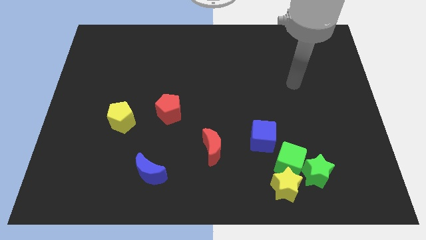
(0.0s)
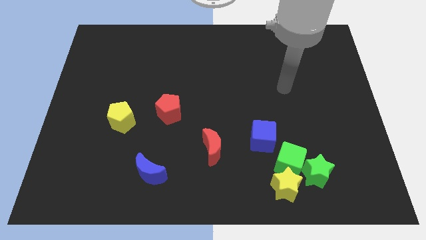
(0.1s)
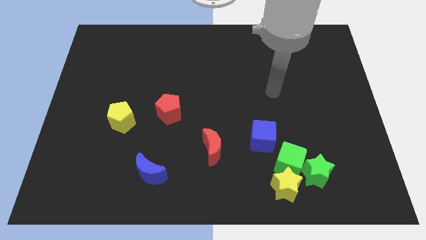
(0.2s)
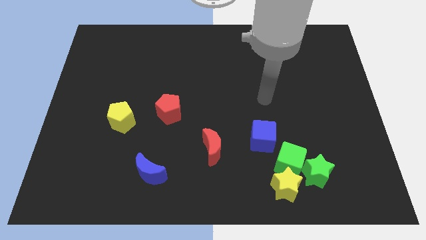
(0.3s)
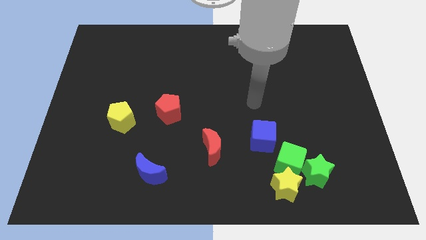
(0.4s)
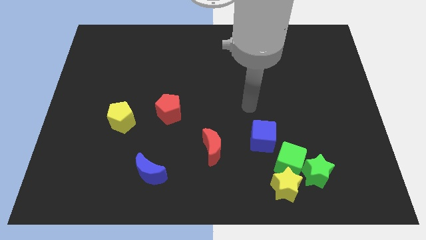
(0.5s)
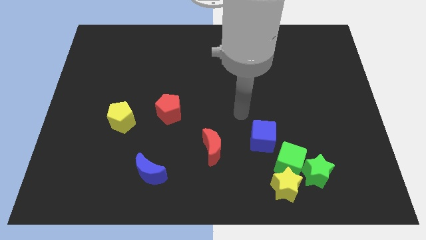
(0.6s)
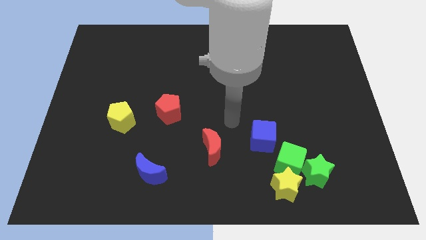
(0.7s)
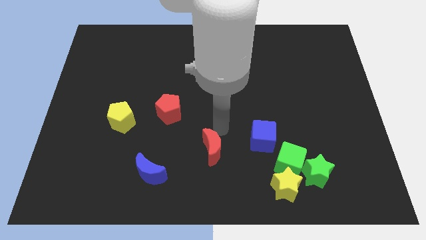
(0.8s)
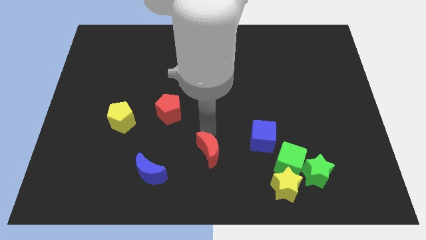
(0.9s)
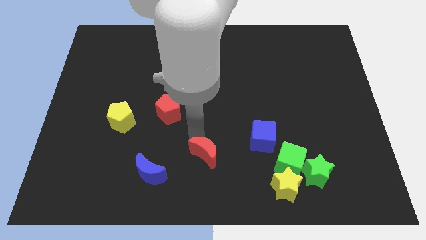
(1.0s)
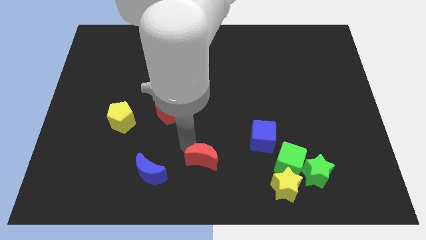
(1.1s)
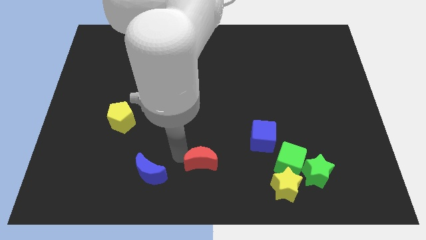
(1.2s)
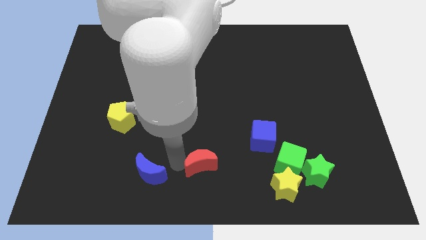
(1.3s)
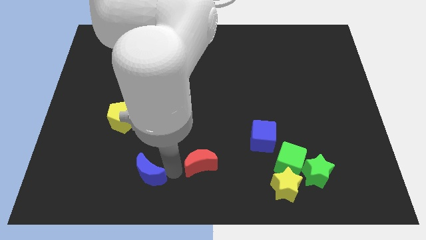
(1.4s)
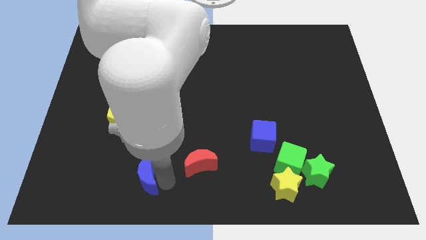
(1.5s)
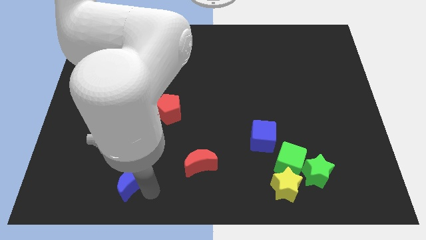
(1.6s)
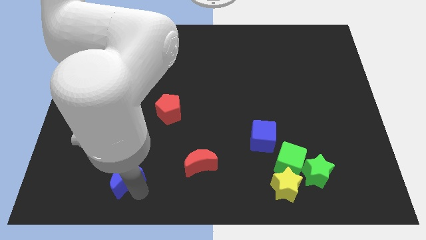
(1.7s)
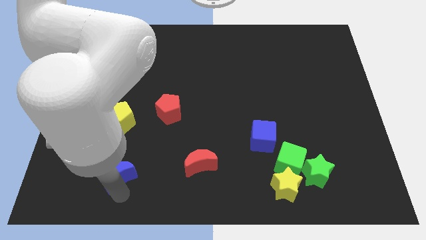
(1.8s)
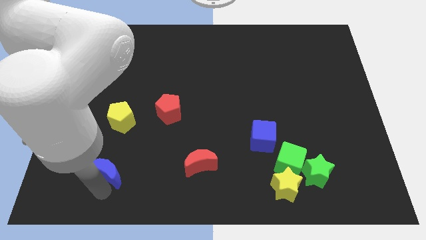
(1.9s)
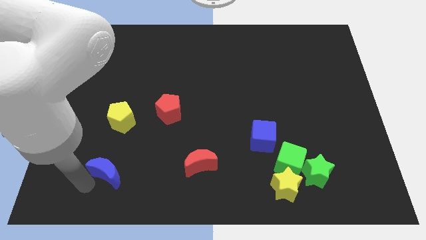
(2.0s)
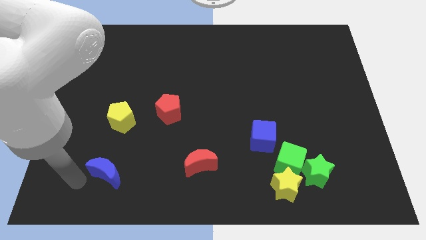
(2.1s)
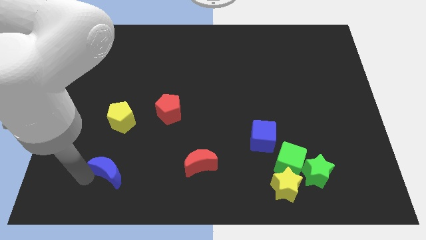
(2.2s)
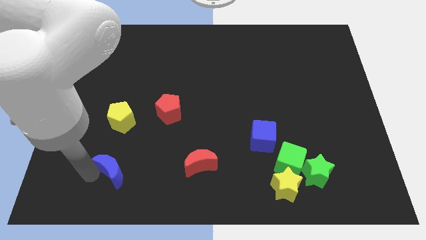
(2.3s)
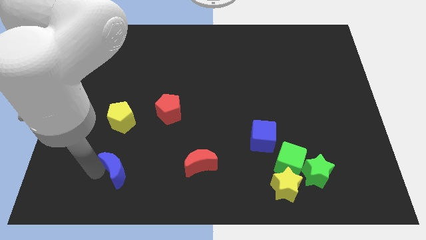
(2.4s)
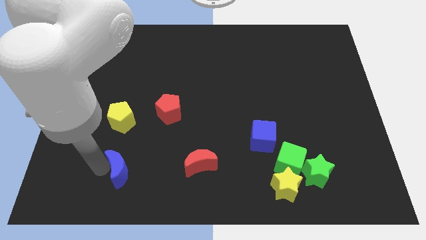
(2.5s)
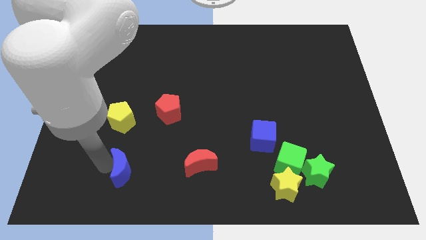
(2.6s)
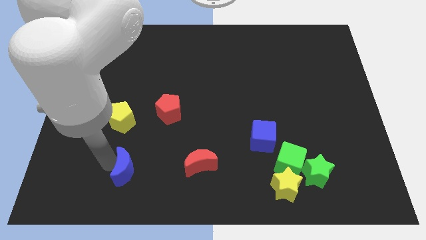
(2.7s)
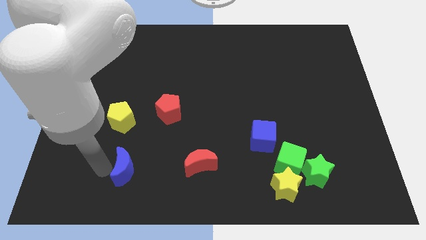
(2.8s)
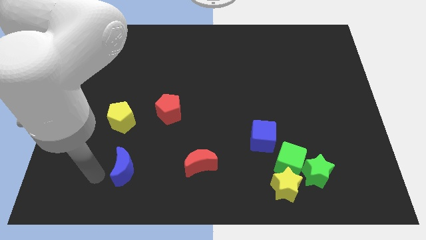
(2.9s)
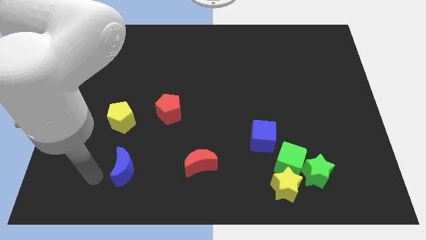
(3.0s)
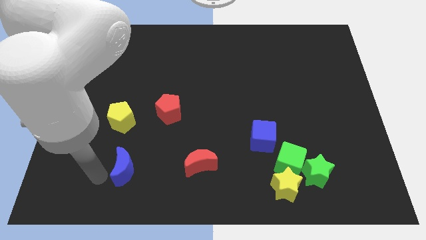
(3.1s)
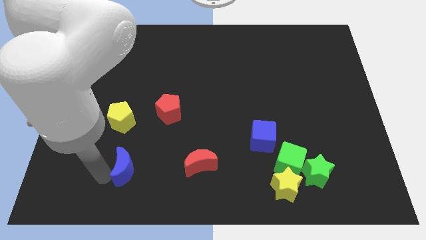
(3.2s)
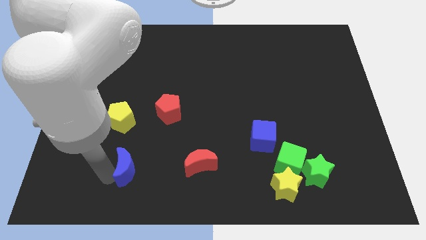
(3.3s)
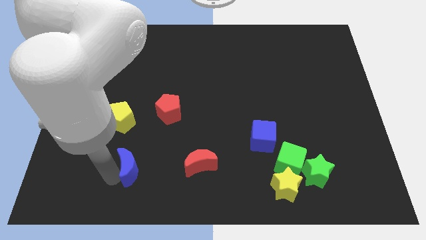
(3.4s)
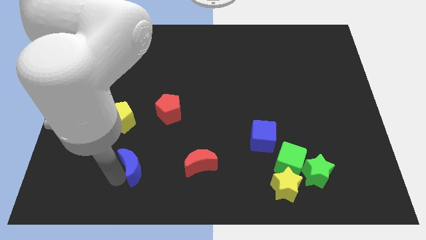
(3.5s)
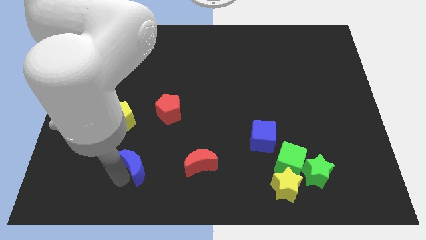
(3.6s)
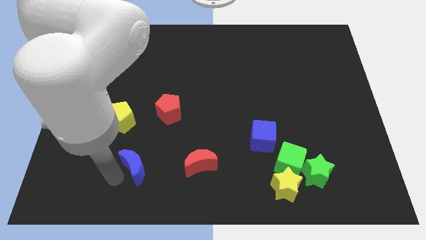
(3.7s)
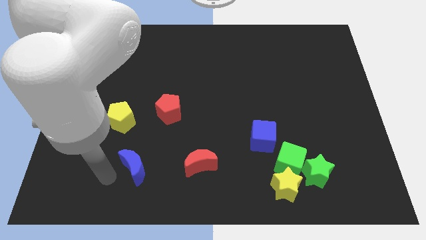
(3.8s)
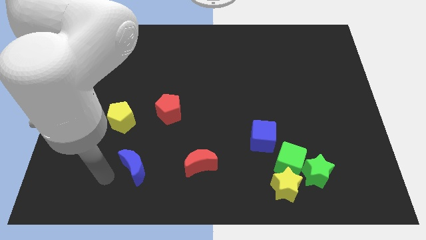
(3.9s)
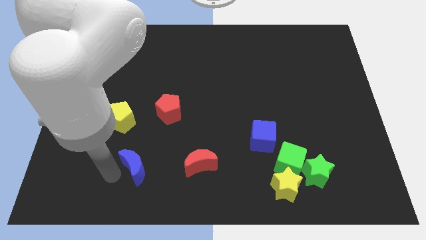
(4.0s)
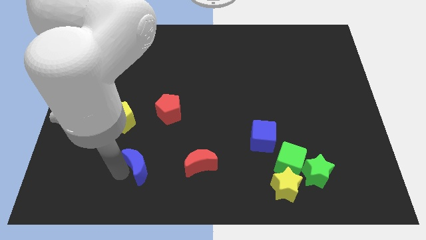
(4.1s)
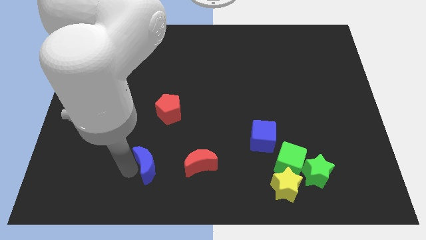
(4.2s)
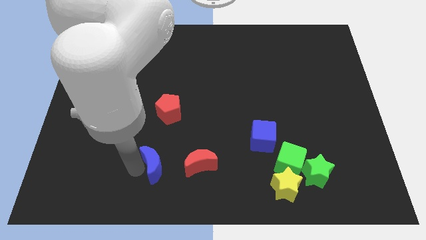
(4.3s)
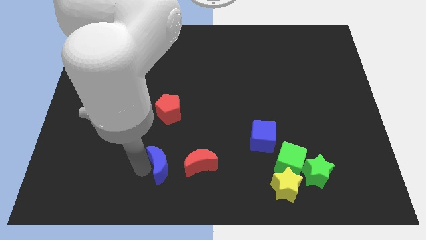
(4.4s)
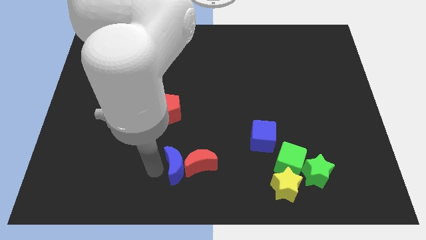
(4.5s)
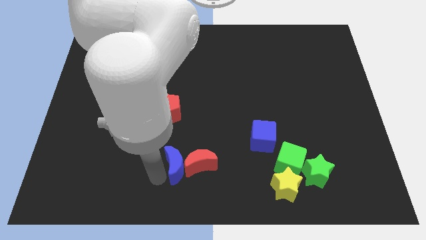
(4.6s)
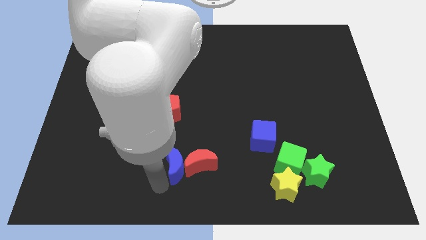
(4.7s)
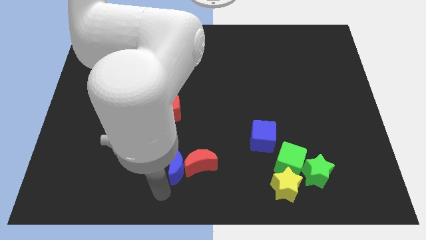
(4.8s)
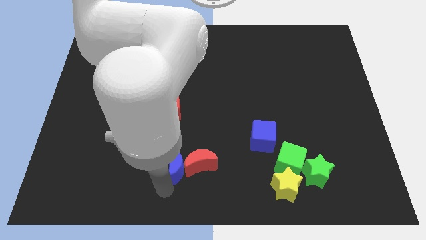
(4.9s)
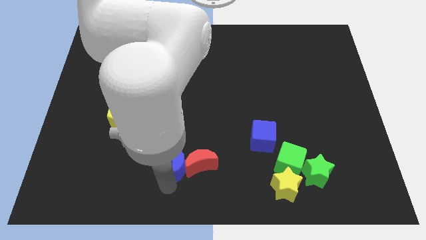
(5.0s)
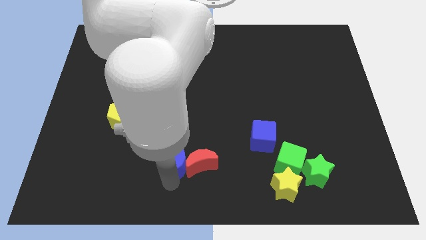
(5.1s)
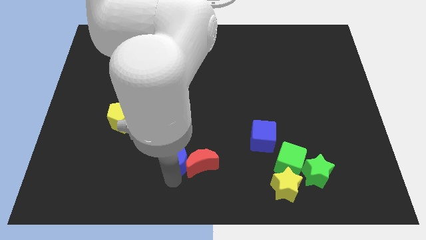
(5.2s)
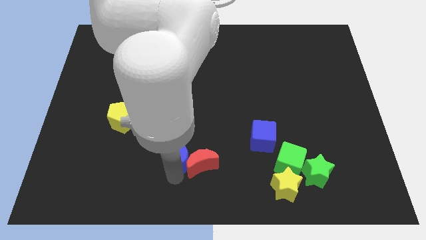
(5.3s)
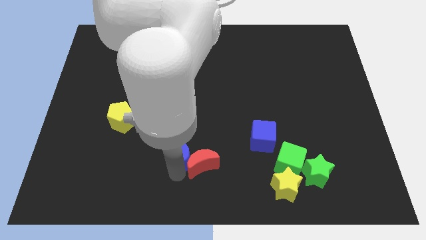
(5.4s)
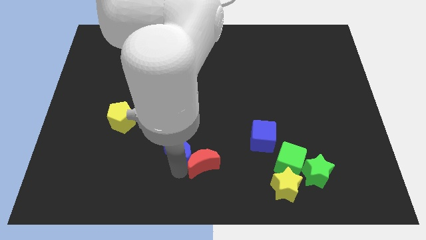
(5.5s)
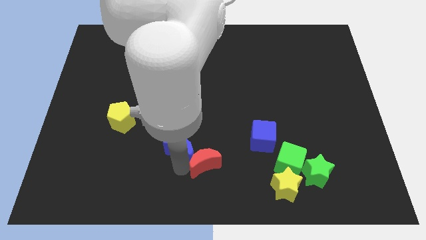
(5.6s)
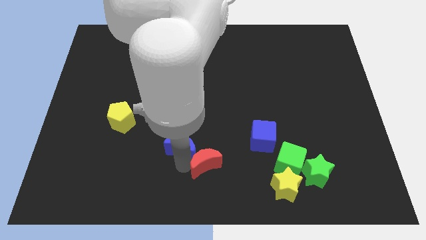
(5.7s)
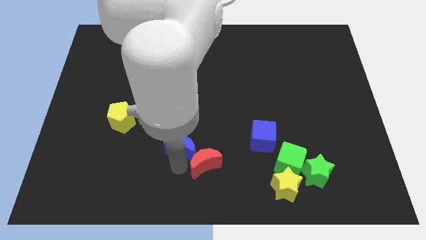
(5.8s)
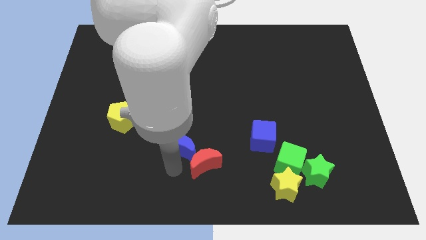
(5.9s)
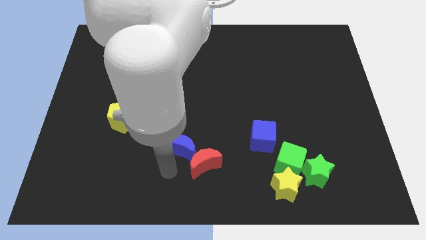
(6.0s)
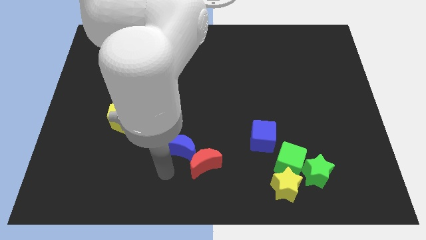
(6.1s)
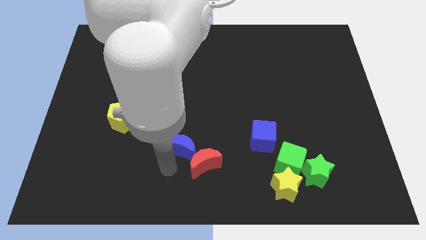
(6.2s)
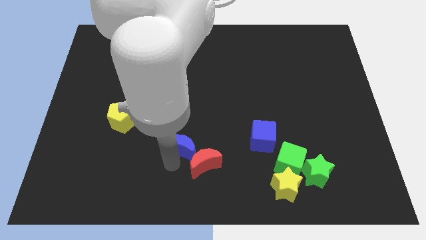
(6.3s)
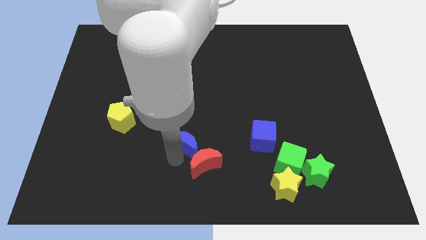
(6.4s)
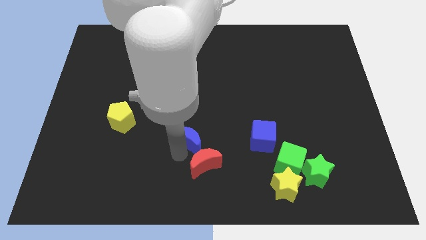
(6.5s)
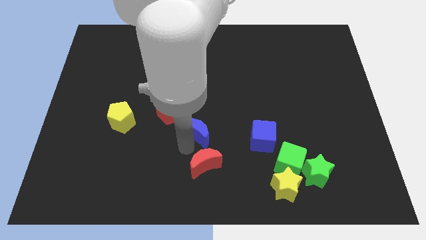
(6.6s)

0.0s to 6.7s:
slide the blue moon to the middle
